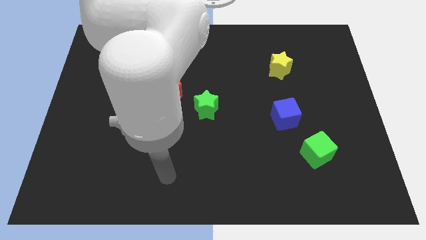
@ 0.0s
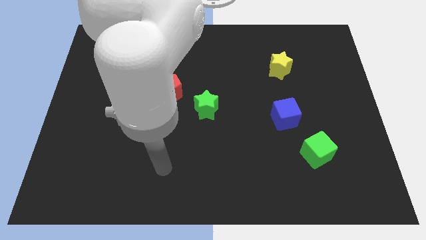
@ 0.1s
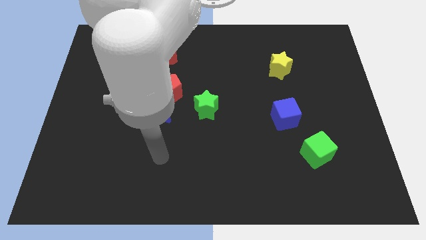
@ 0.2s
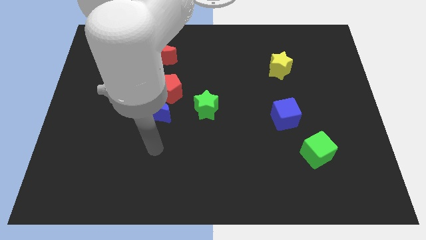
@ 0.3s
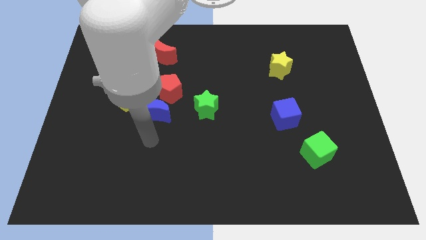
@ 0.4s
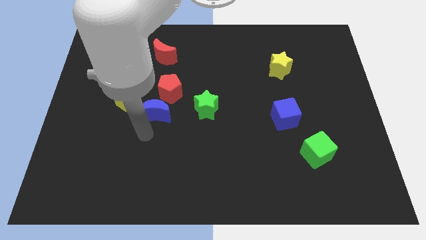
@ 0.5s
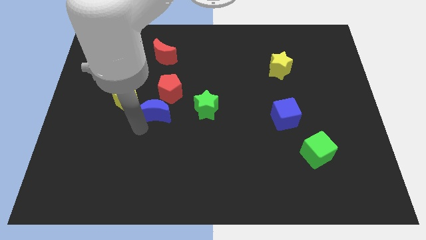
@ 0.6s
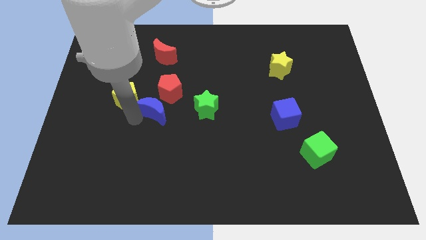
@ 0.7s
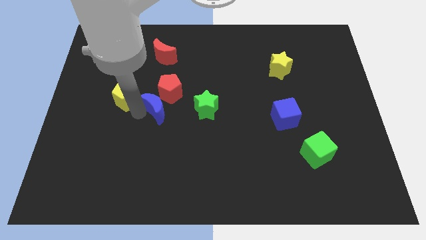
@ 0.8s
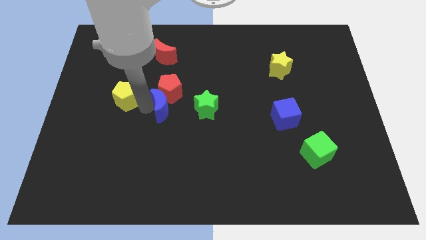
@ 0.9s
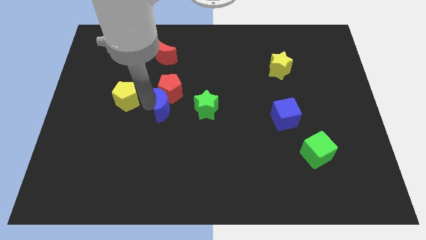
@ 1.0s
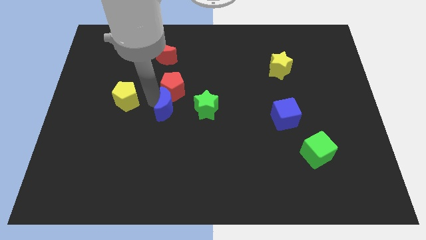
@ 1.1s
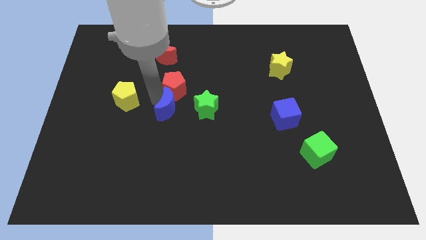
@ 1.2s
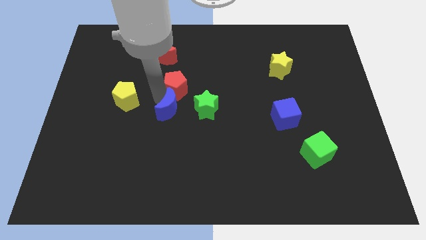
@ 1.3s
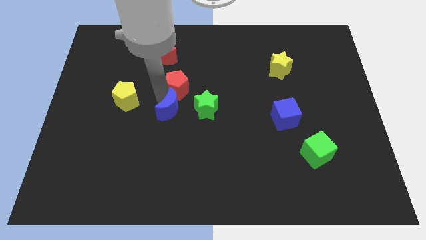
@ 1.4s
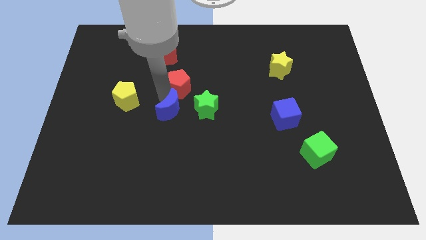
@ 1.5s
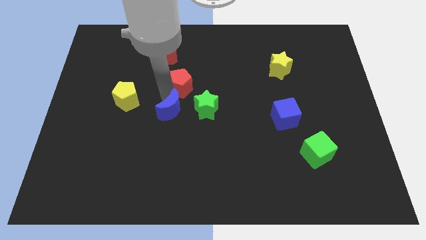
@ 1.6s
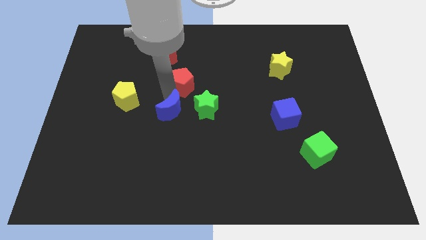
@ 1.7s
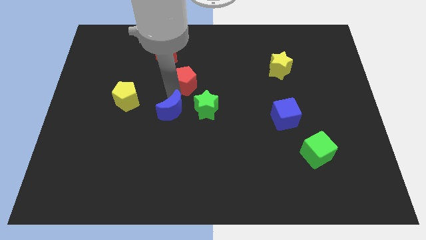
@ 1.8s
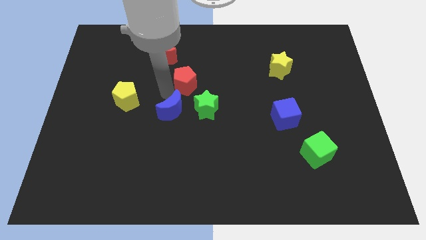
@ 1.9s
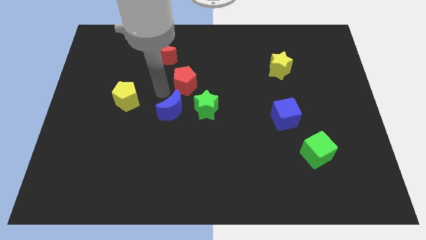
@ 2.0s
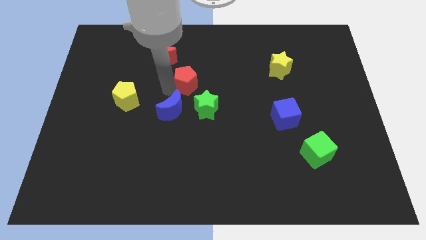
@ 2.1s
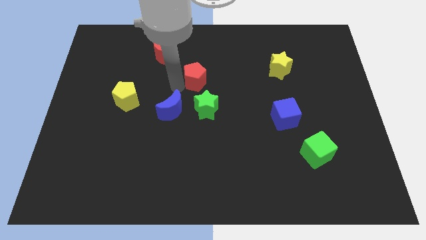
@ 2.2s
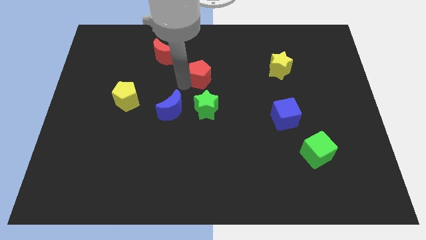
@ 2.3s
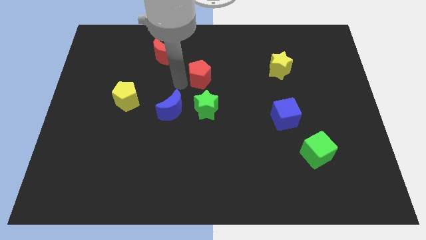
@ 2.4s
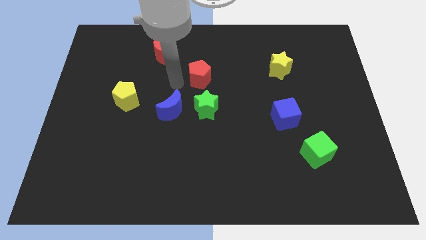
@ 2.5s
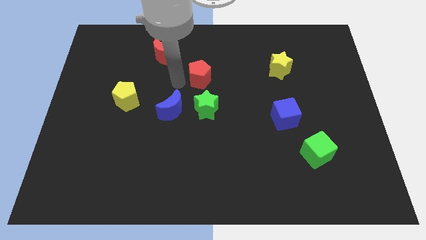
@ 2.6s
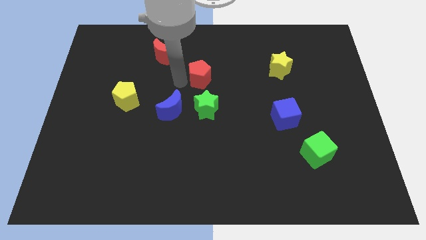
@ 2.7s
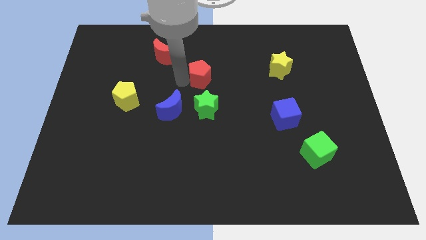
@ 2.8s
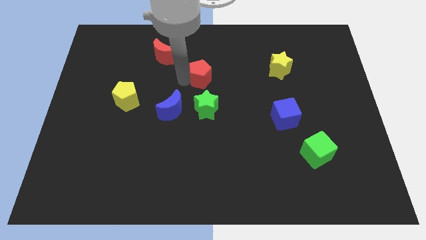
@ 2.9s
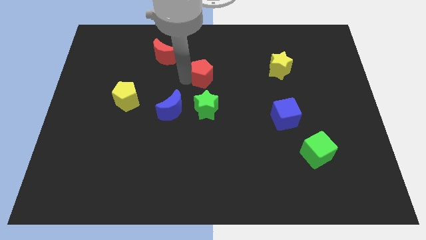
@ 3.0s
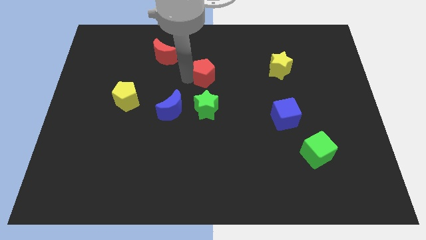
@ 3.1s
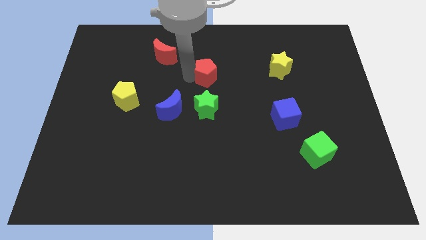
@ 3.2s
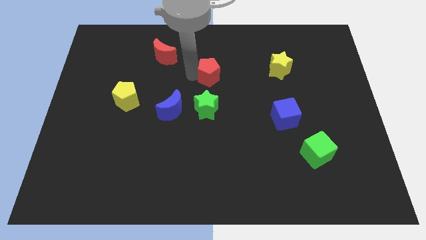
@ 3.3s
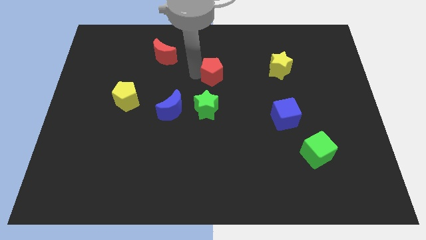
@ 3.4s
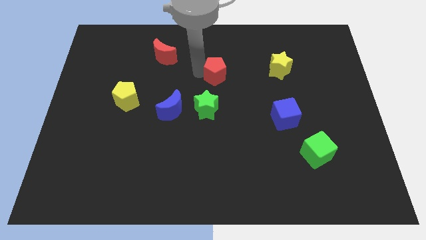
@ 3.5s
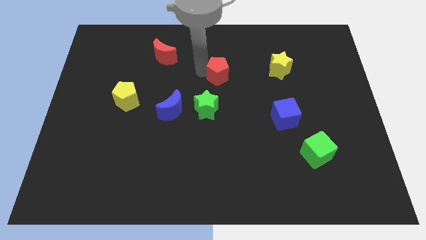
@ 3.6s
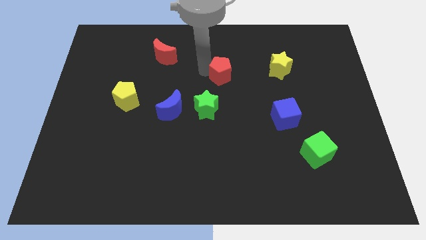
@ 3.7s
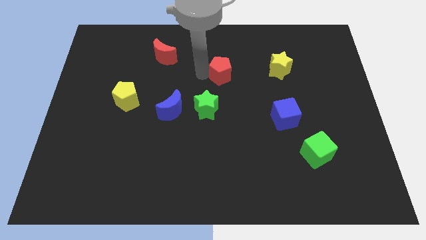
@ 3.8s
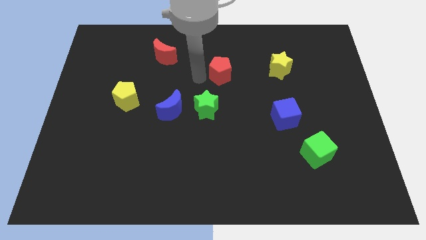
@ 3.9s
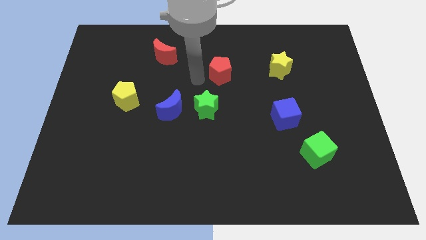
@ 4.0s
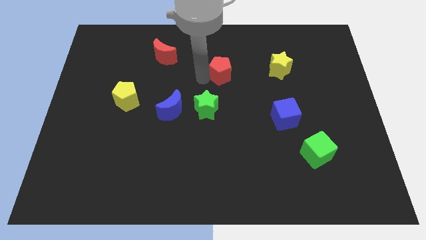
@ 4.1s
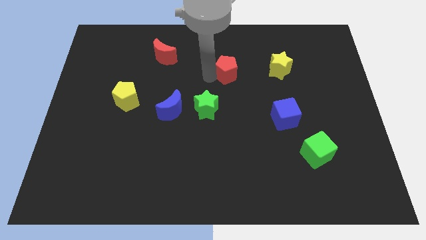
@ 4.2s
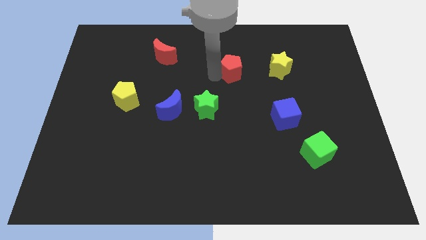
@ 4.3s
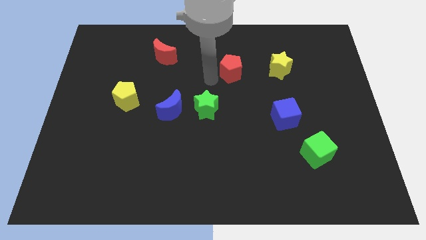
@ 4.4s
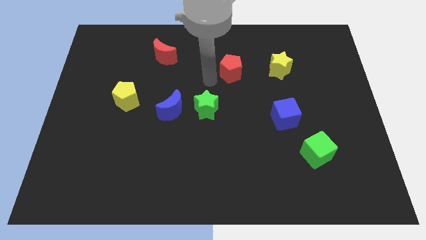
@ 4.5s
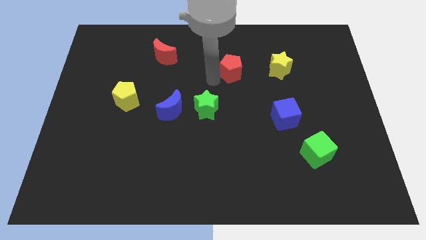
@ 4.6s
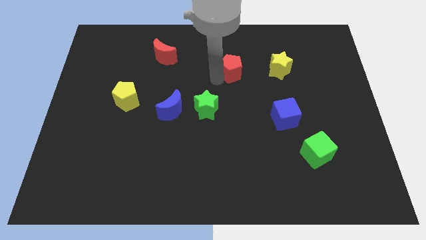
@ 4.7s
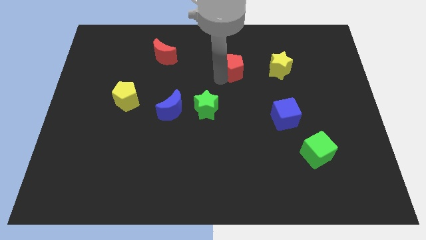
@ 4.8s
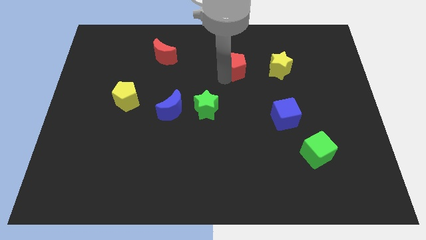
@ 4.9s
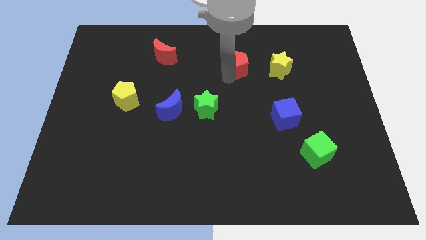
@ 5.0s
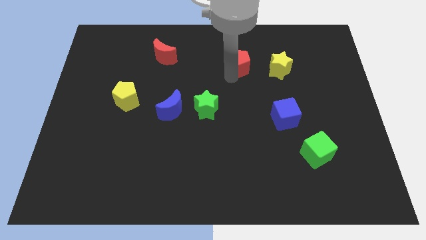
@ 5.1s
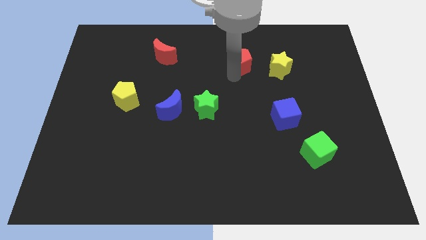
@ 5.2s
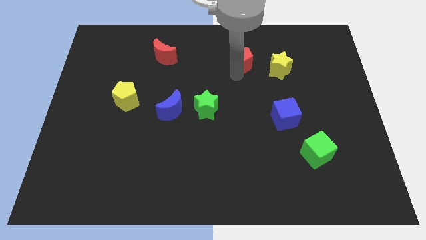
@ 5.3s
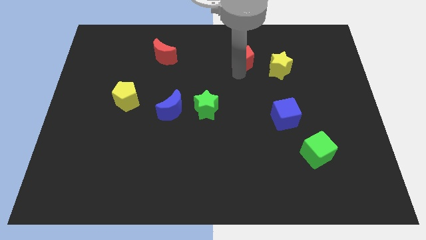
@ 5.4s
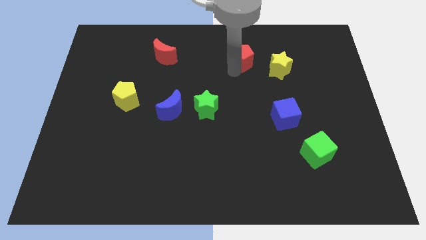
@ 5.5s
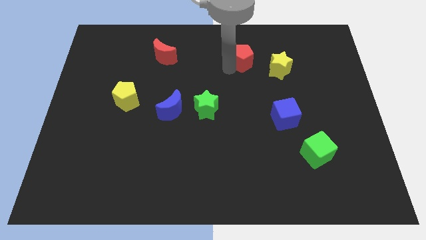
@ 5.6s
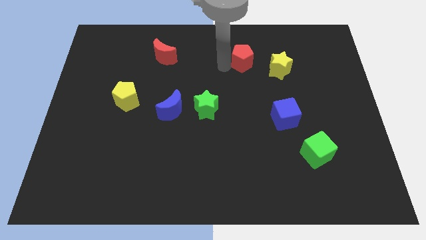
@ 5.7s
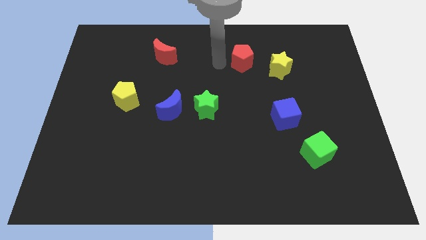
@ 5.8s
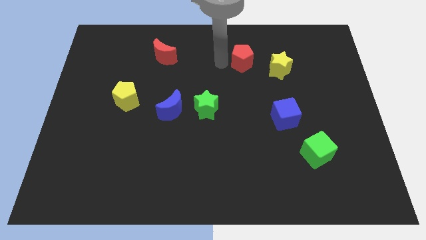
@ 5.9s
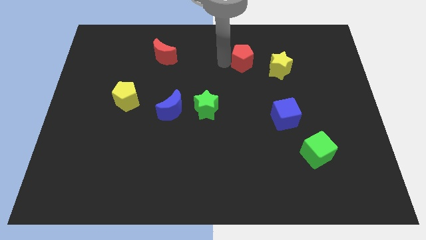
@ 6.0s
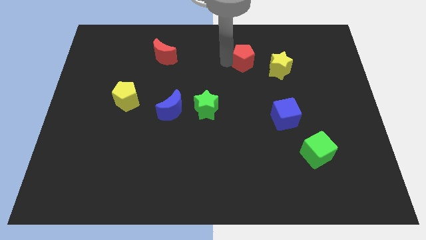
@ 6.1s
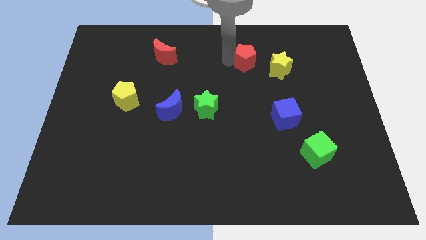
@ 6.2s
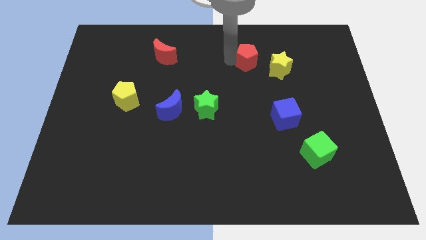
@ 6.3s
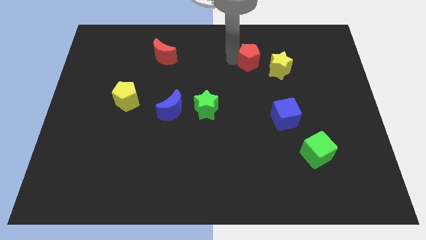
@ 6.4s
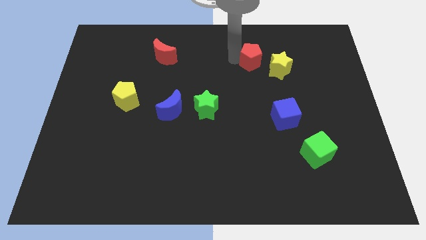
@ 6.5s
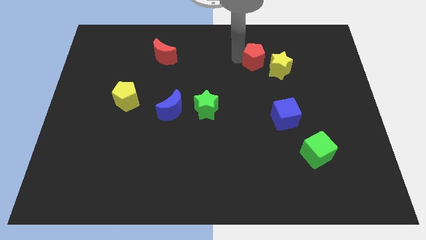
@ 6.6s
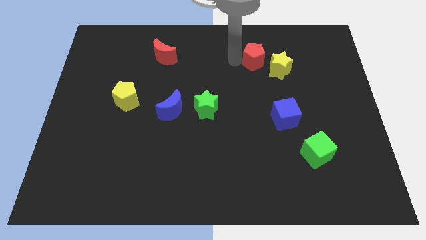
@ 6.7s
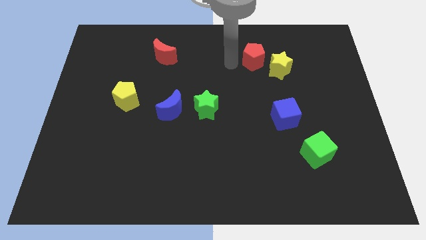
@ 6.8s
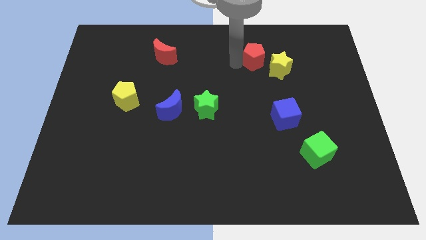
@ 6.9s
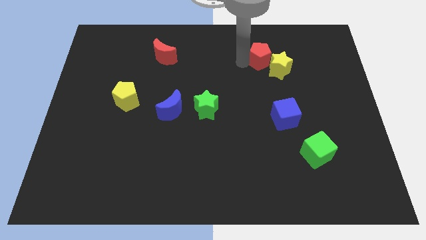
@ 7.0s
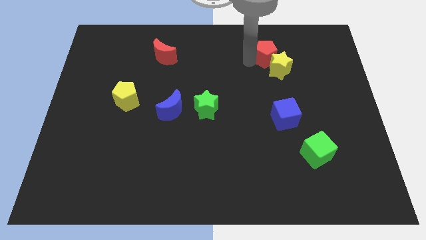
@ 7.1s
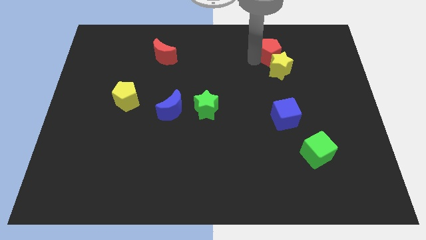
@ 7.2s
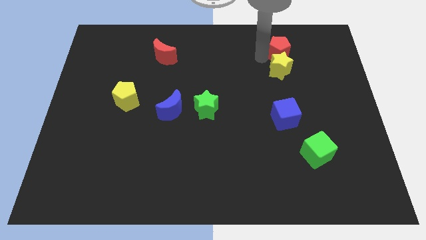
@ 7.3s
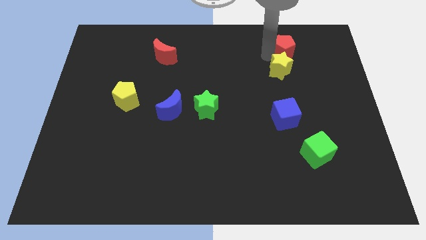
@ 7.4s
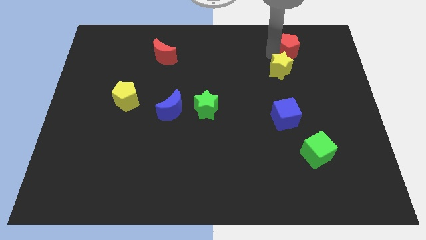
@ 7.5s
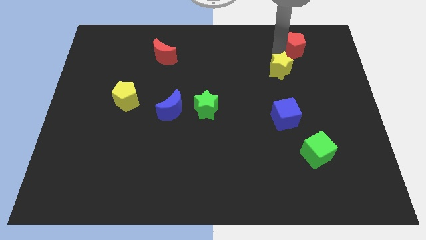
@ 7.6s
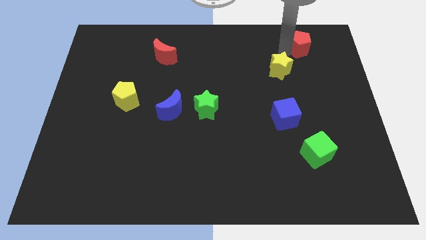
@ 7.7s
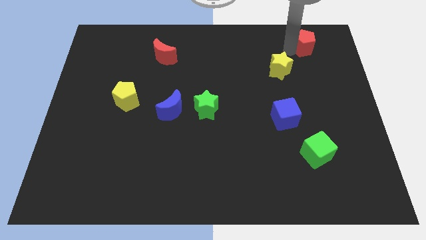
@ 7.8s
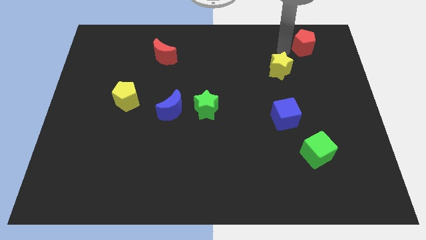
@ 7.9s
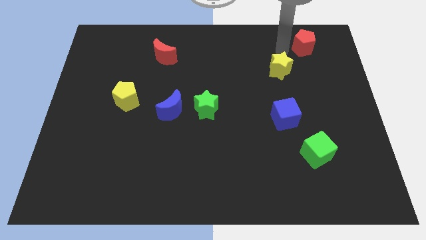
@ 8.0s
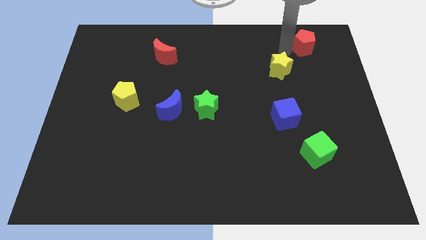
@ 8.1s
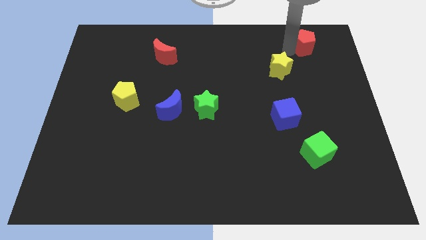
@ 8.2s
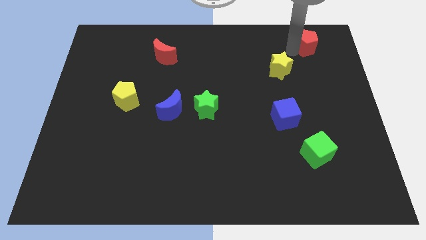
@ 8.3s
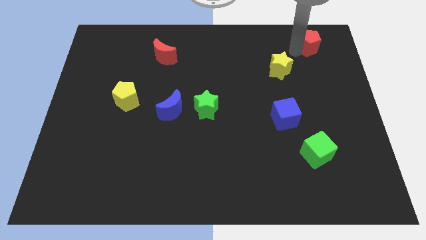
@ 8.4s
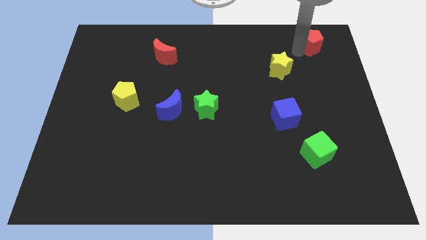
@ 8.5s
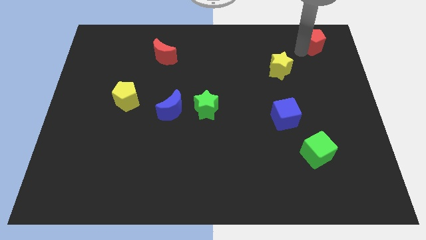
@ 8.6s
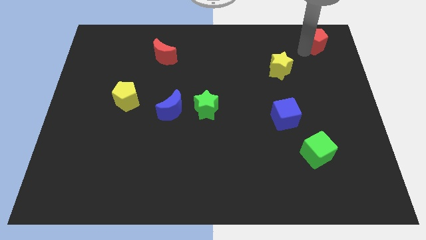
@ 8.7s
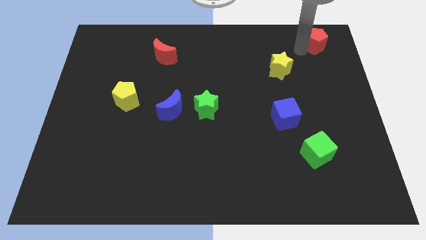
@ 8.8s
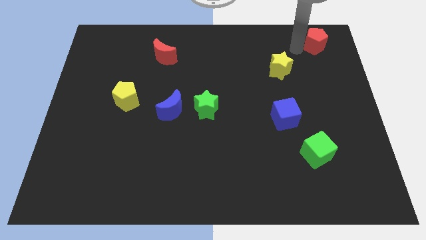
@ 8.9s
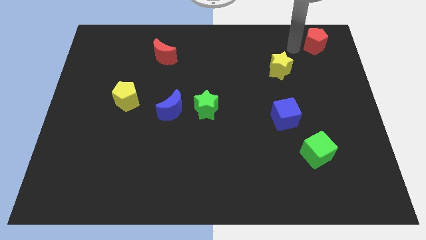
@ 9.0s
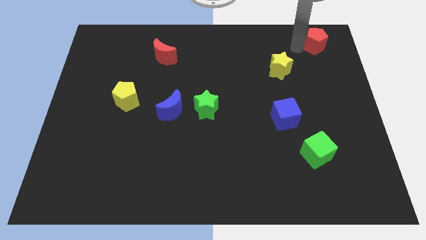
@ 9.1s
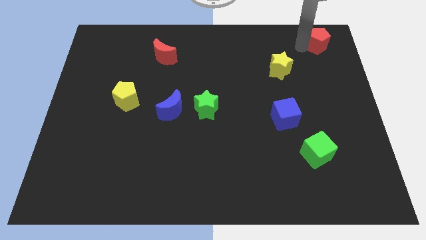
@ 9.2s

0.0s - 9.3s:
put the red pentagon to the upper right corner
